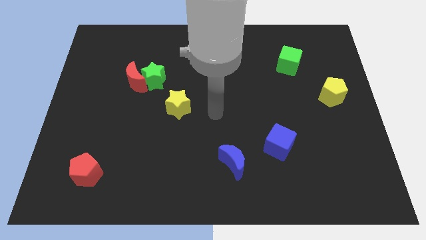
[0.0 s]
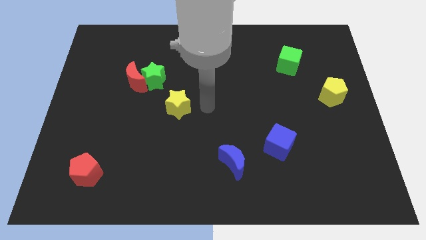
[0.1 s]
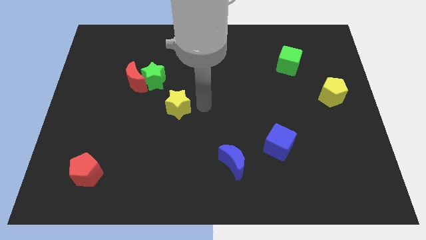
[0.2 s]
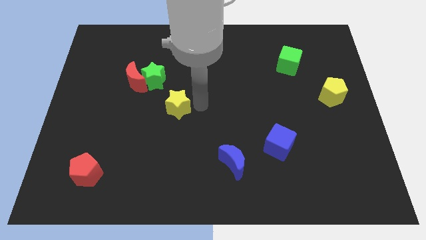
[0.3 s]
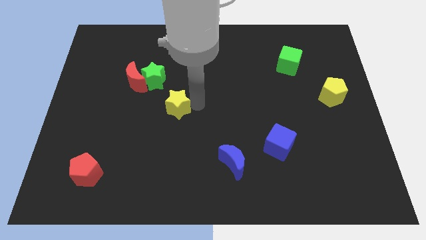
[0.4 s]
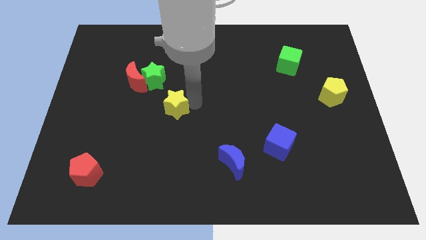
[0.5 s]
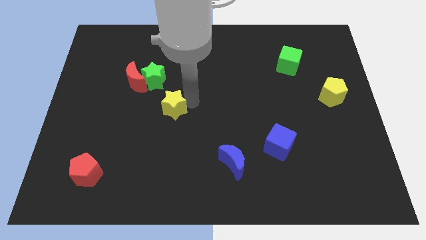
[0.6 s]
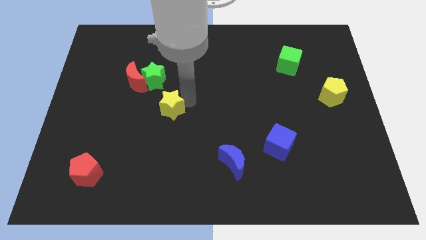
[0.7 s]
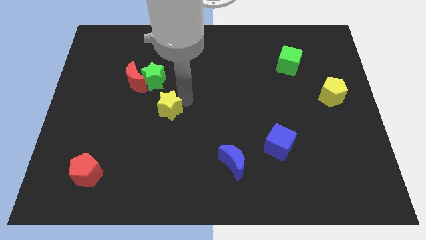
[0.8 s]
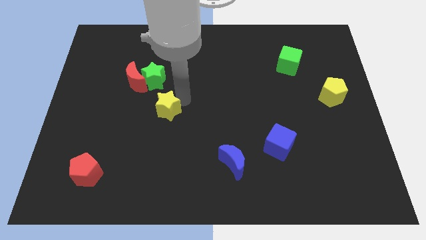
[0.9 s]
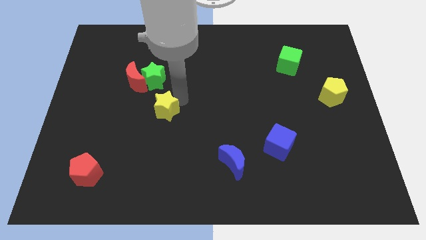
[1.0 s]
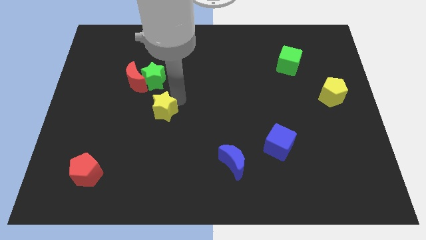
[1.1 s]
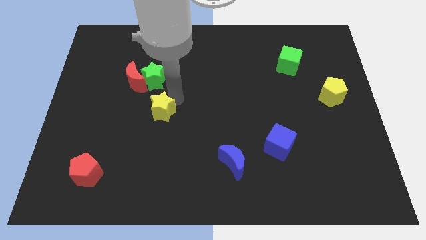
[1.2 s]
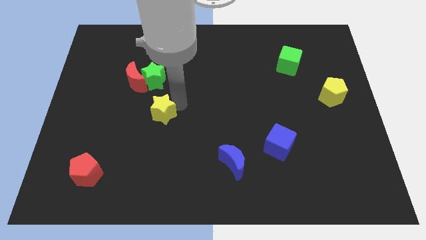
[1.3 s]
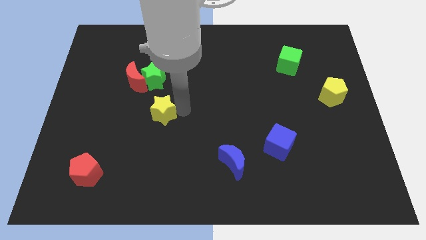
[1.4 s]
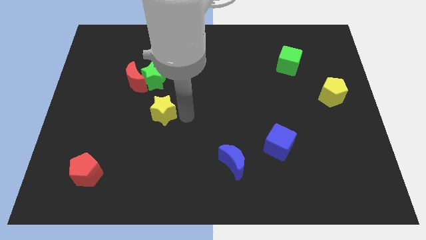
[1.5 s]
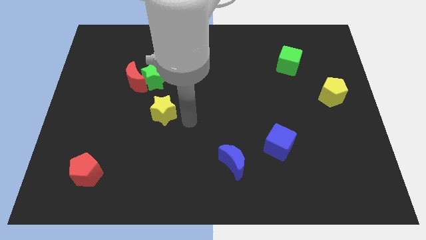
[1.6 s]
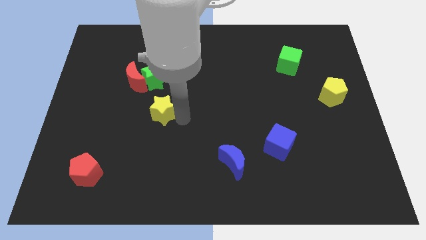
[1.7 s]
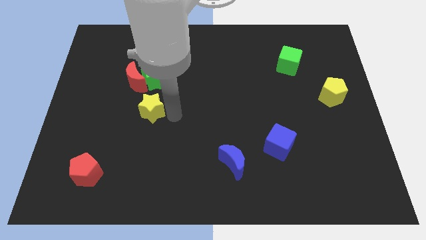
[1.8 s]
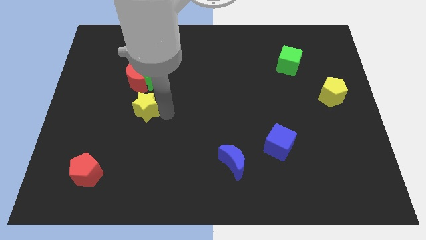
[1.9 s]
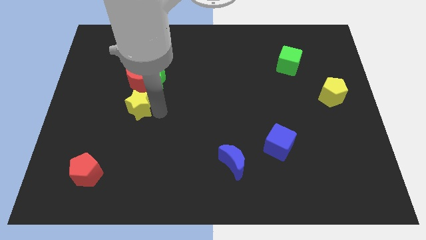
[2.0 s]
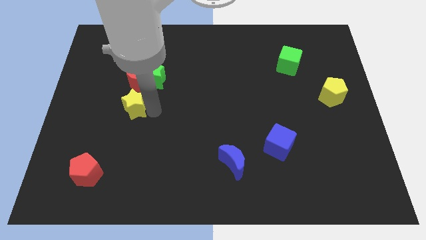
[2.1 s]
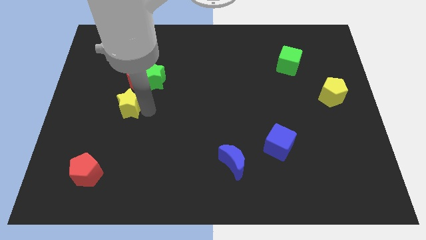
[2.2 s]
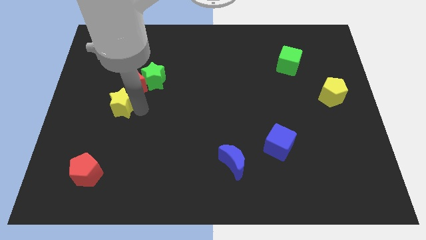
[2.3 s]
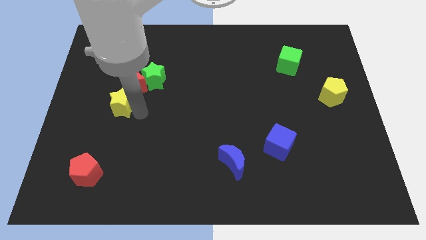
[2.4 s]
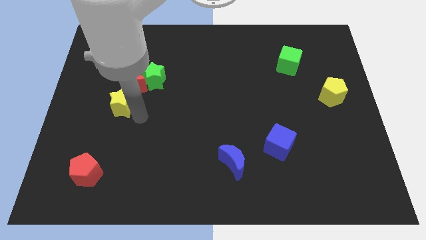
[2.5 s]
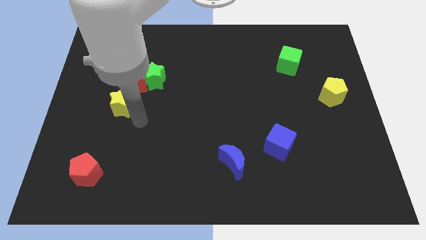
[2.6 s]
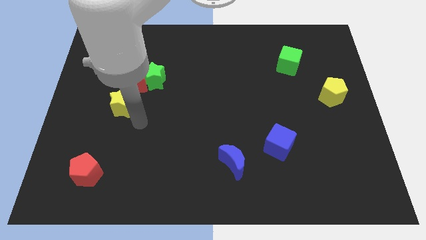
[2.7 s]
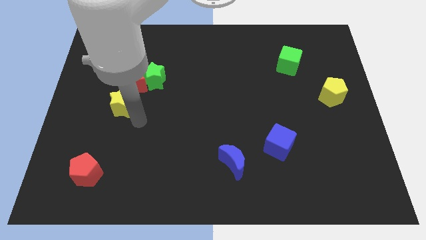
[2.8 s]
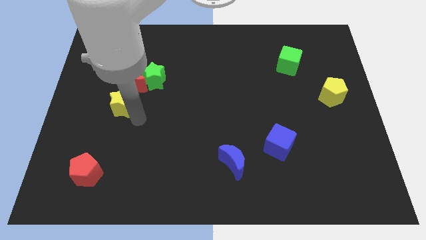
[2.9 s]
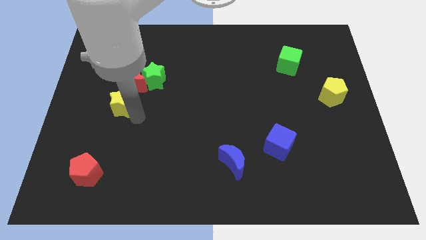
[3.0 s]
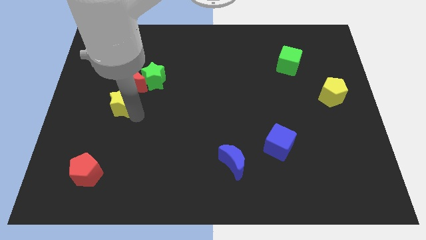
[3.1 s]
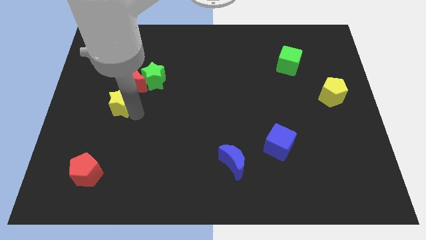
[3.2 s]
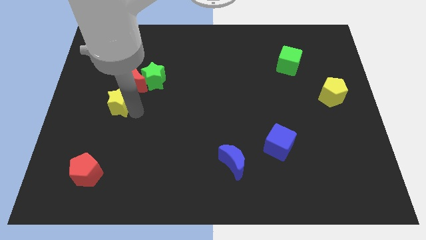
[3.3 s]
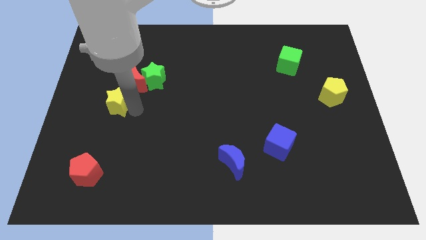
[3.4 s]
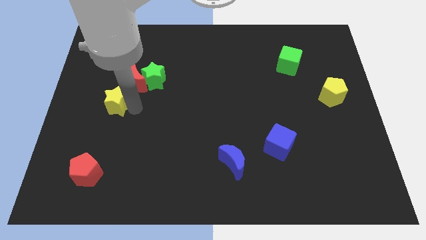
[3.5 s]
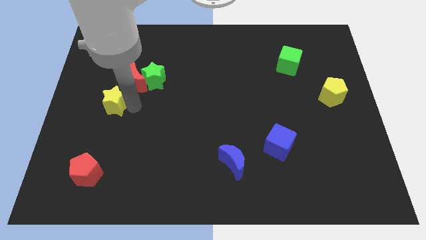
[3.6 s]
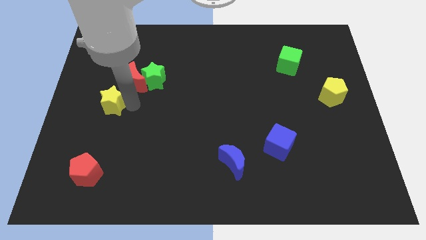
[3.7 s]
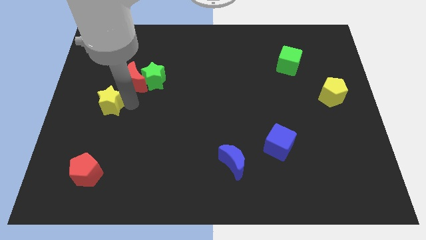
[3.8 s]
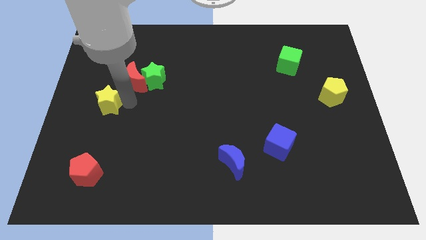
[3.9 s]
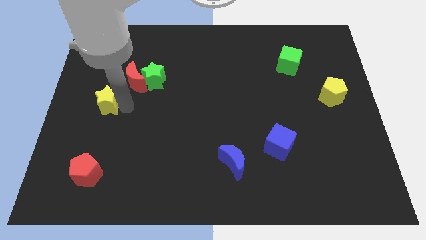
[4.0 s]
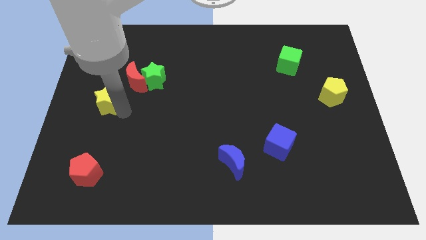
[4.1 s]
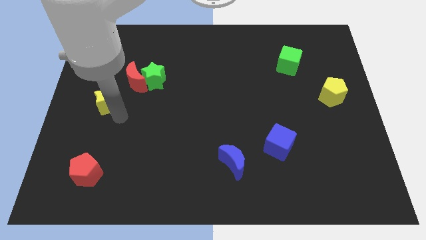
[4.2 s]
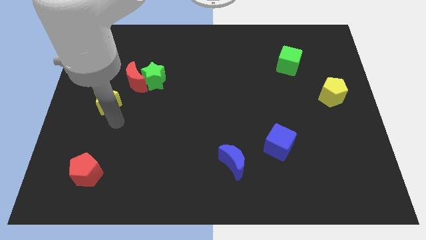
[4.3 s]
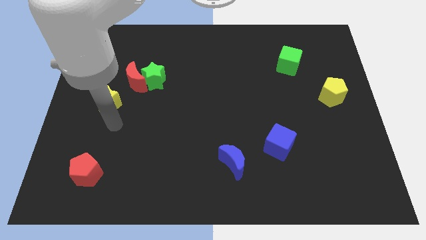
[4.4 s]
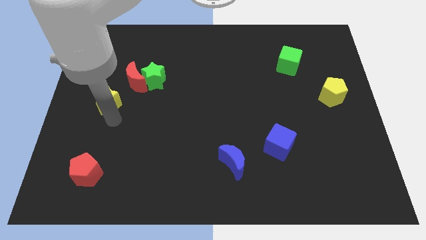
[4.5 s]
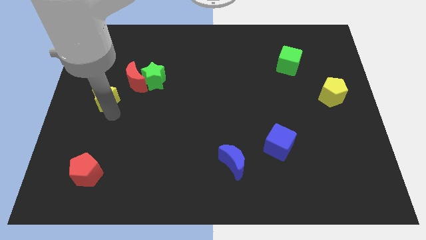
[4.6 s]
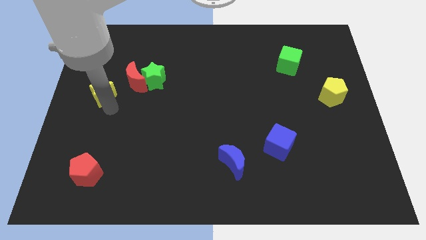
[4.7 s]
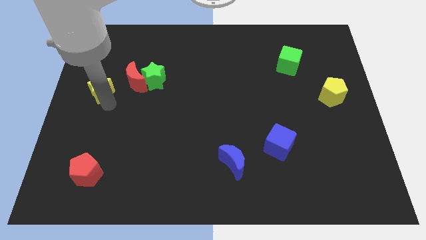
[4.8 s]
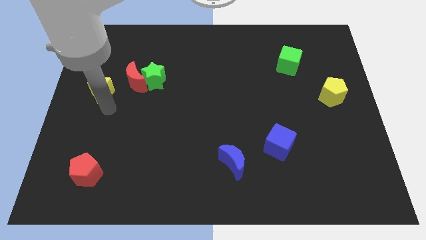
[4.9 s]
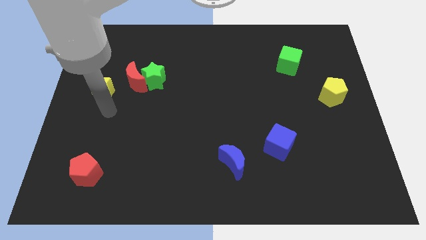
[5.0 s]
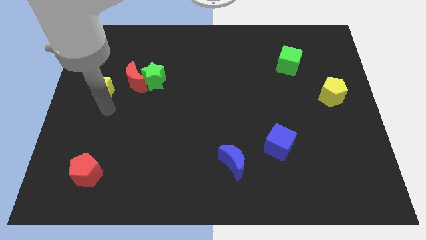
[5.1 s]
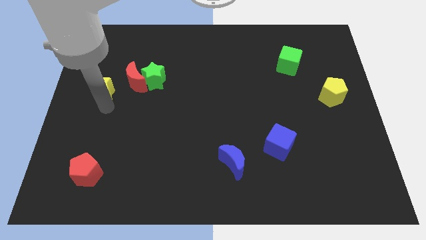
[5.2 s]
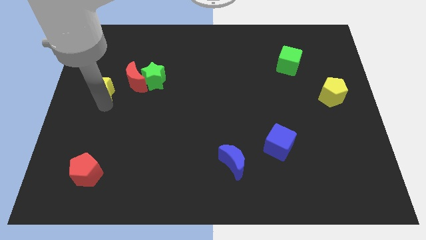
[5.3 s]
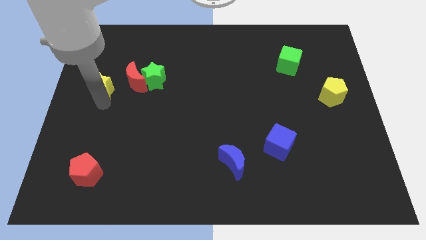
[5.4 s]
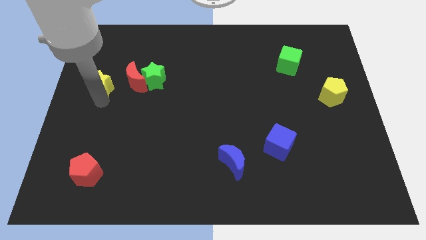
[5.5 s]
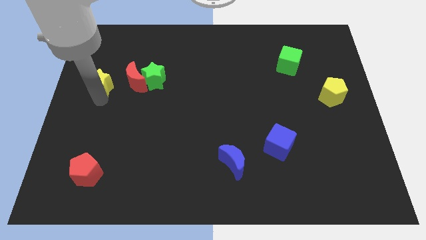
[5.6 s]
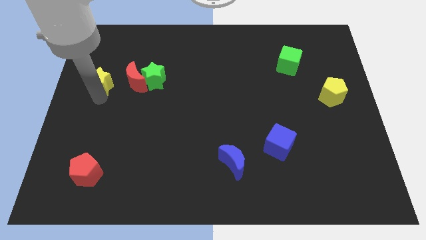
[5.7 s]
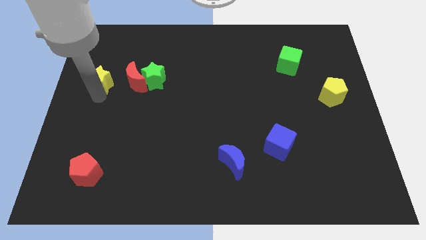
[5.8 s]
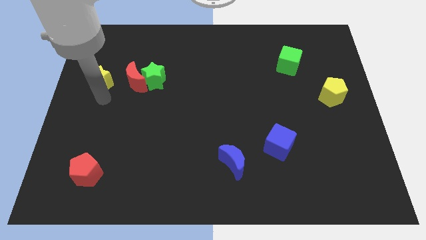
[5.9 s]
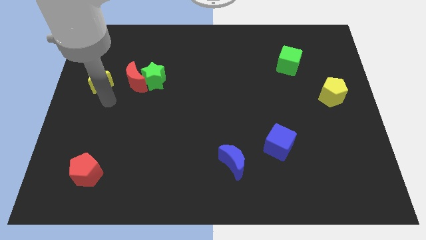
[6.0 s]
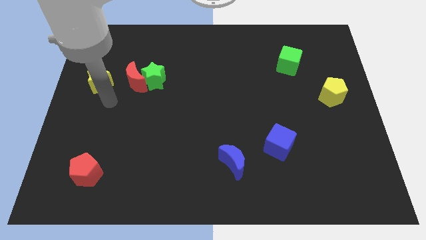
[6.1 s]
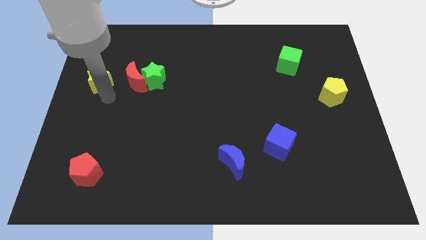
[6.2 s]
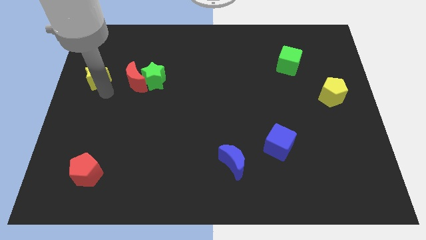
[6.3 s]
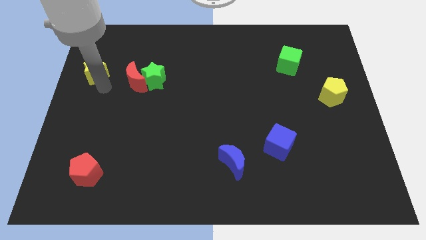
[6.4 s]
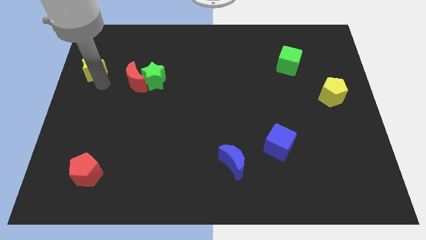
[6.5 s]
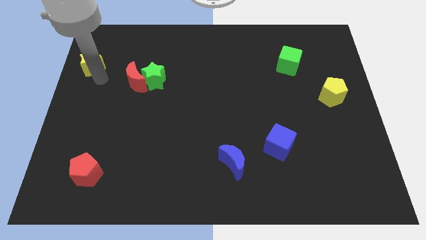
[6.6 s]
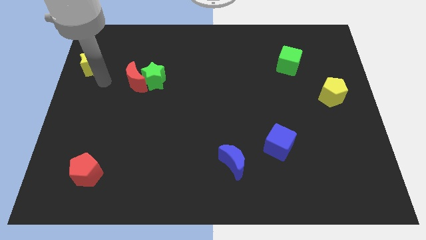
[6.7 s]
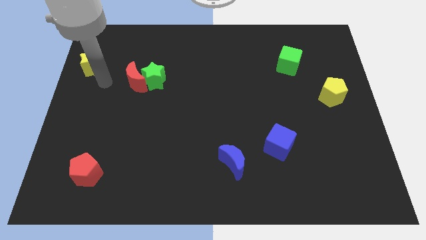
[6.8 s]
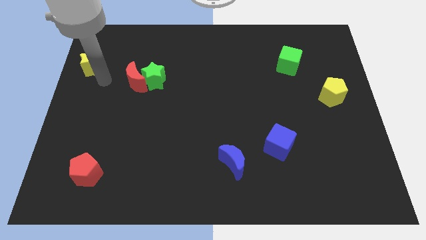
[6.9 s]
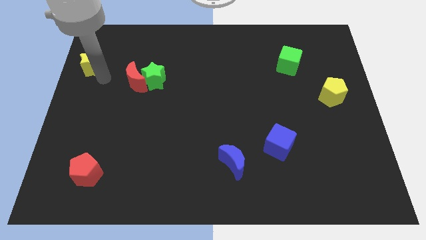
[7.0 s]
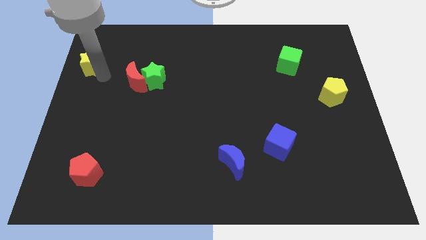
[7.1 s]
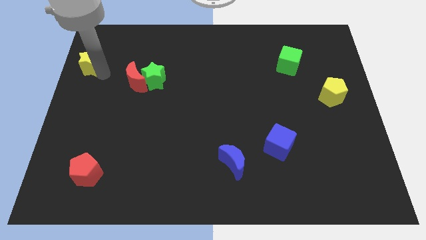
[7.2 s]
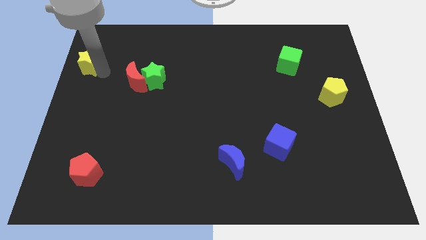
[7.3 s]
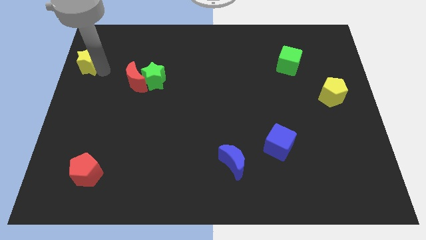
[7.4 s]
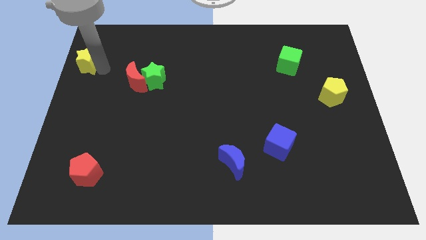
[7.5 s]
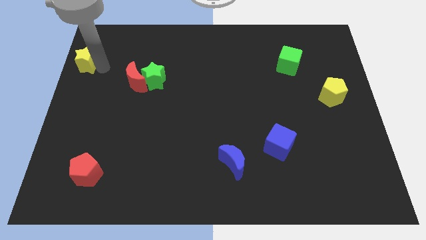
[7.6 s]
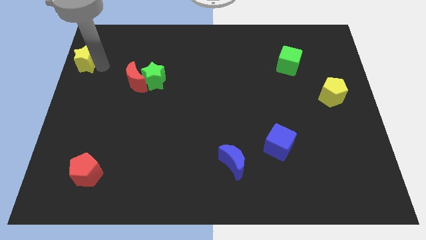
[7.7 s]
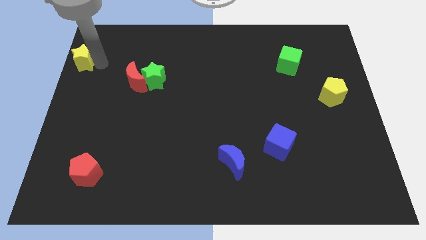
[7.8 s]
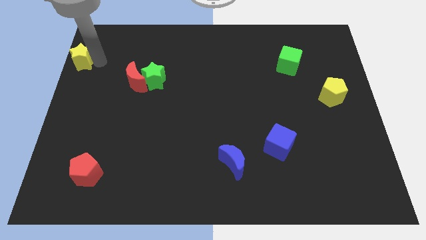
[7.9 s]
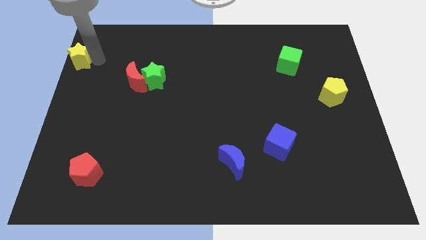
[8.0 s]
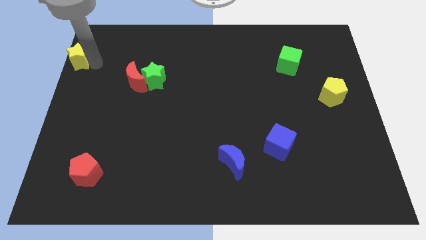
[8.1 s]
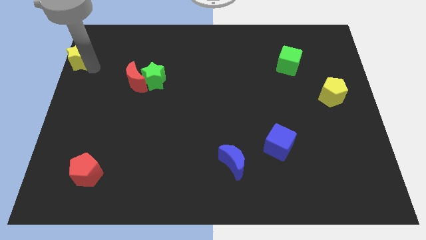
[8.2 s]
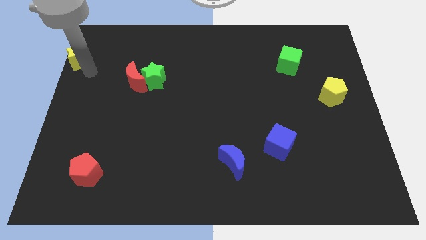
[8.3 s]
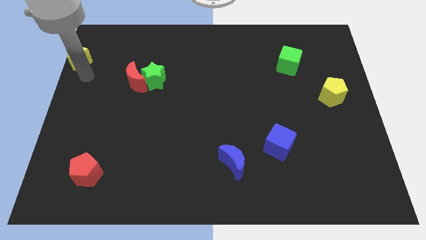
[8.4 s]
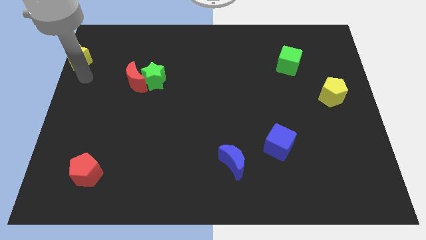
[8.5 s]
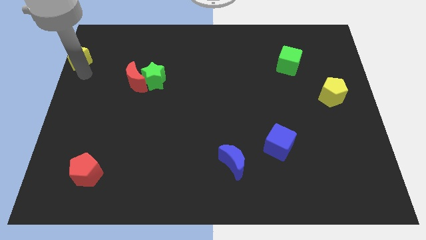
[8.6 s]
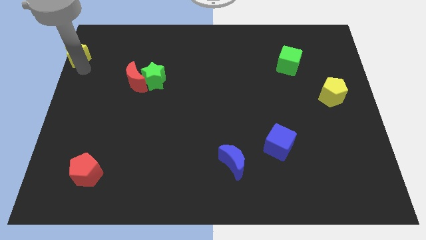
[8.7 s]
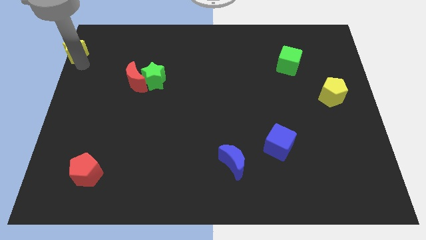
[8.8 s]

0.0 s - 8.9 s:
put the yellow star to the top left corner
